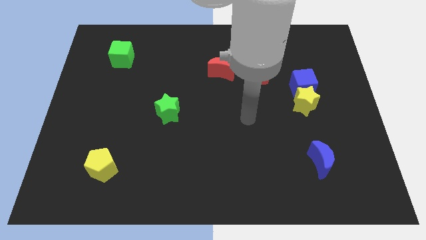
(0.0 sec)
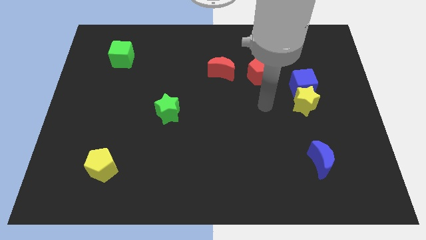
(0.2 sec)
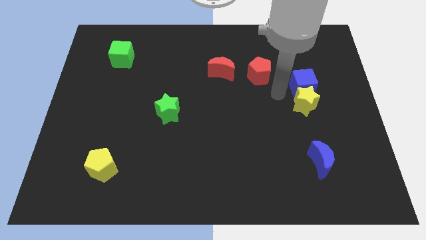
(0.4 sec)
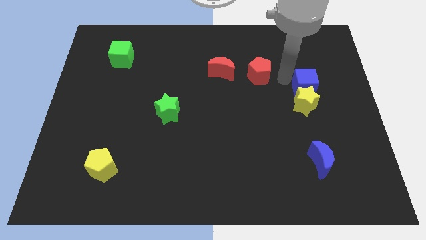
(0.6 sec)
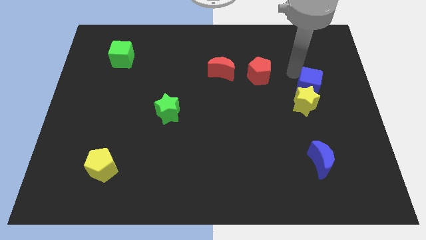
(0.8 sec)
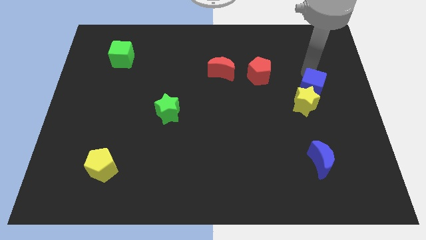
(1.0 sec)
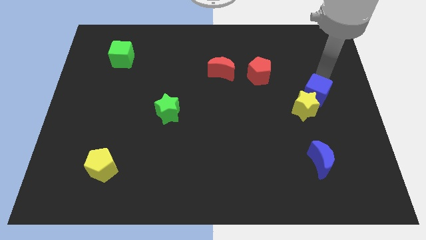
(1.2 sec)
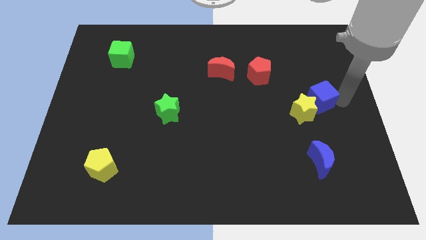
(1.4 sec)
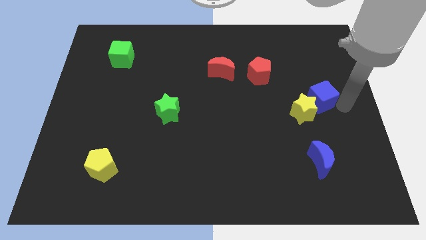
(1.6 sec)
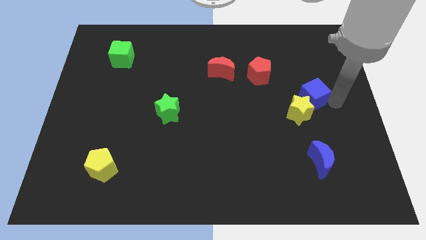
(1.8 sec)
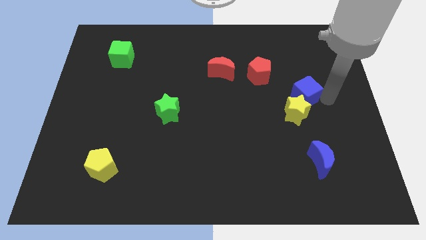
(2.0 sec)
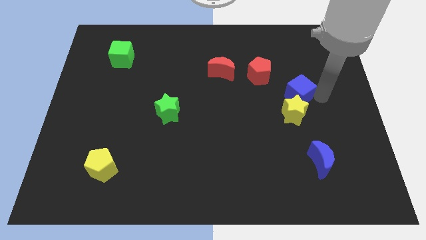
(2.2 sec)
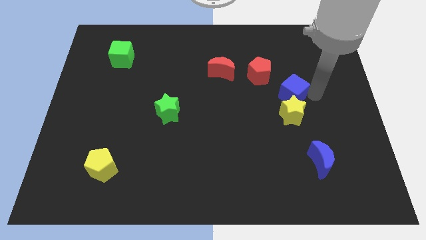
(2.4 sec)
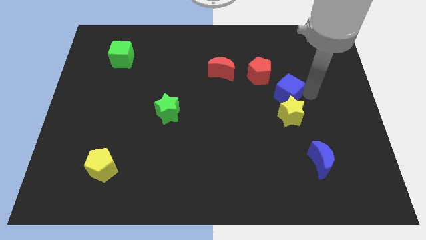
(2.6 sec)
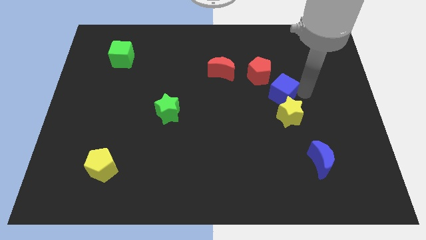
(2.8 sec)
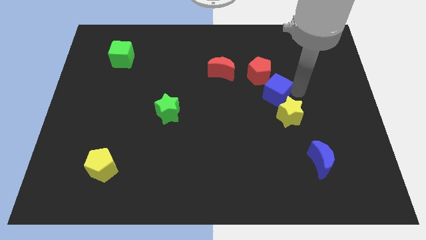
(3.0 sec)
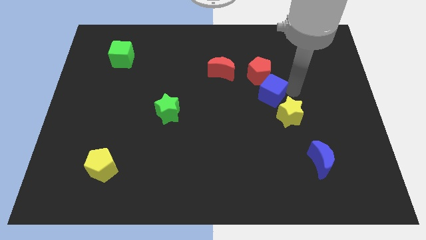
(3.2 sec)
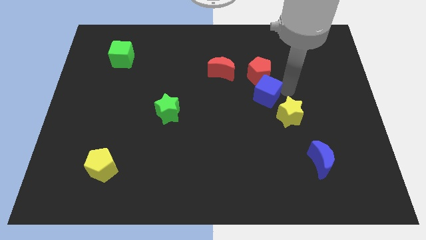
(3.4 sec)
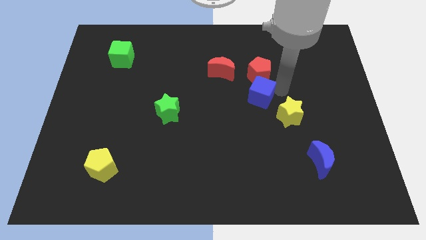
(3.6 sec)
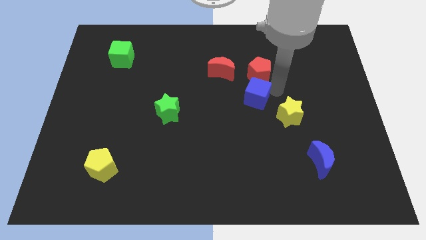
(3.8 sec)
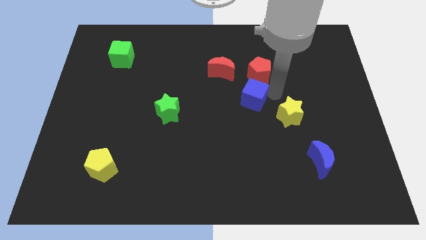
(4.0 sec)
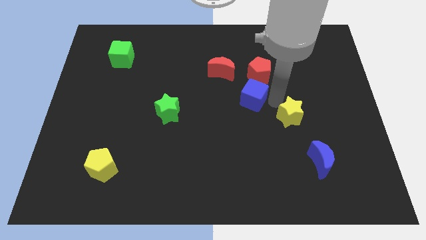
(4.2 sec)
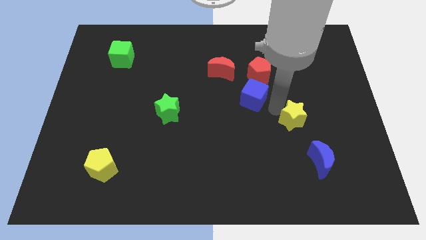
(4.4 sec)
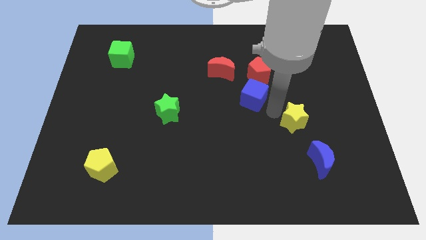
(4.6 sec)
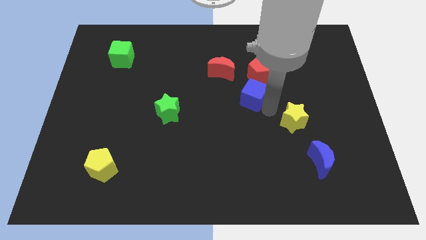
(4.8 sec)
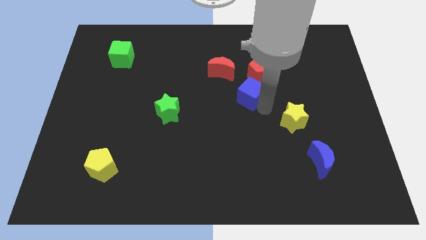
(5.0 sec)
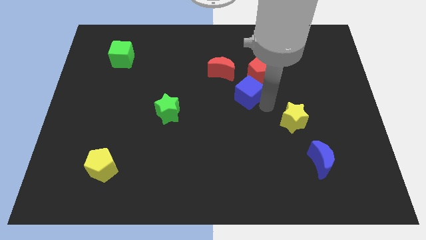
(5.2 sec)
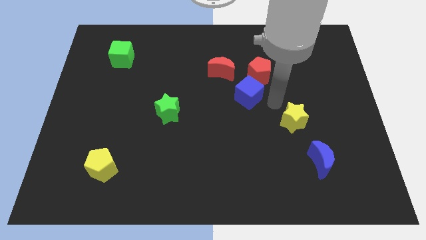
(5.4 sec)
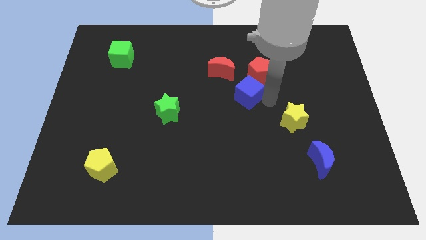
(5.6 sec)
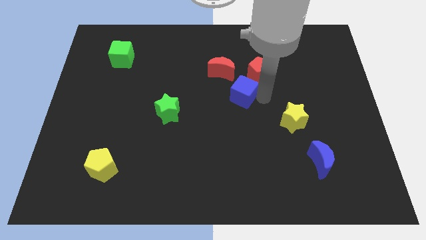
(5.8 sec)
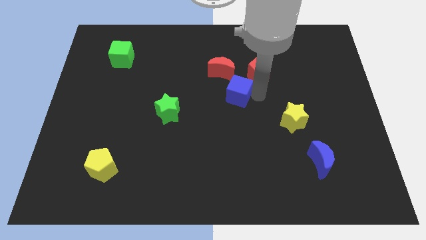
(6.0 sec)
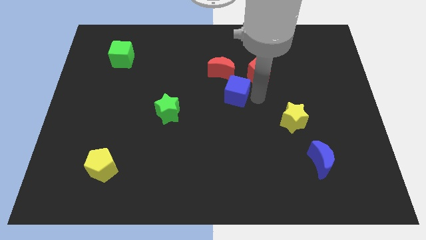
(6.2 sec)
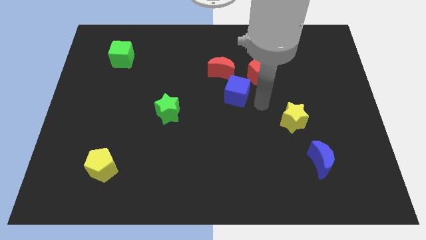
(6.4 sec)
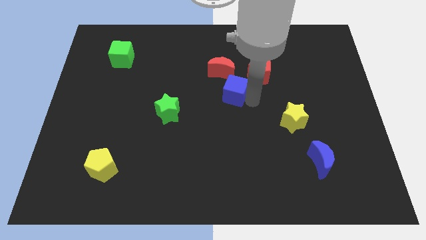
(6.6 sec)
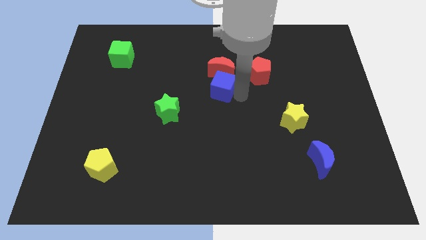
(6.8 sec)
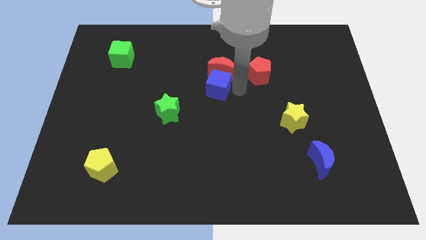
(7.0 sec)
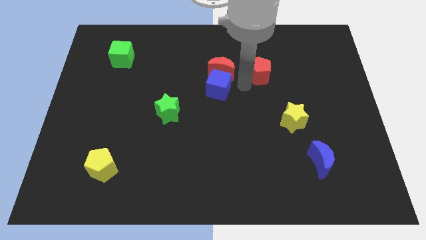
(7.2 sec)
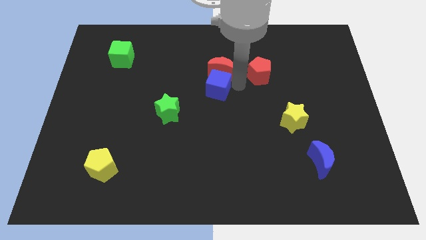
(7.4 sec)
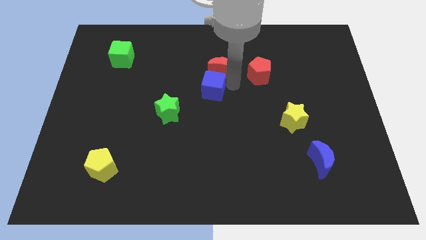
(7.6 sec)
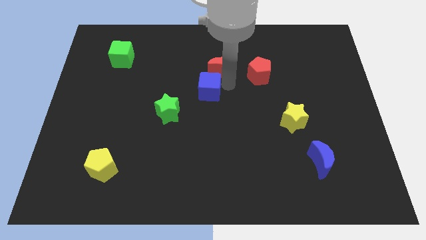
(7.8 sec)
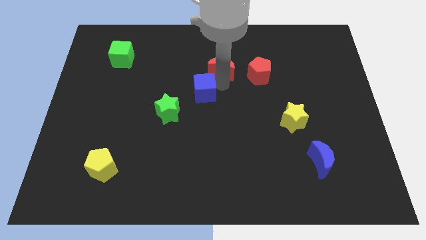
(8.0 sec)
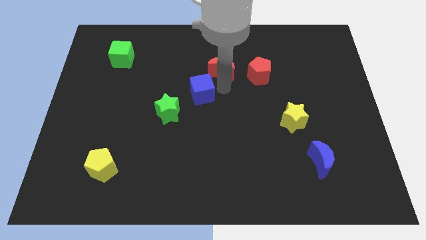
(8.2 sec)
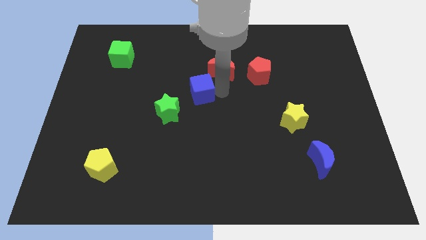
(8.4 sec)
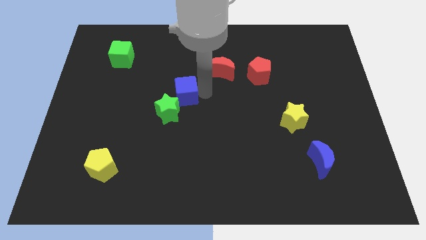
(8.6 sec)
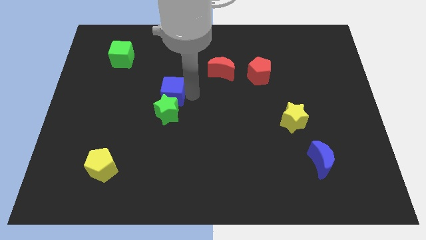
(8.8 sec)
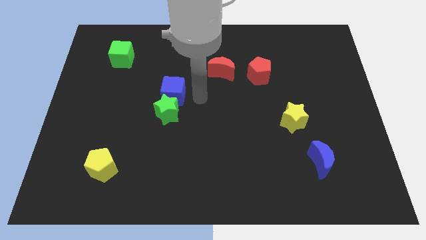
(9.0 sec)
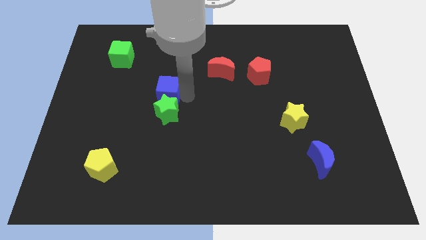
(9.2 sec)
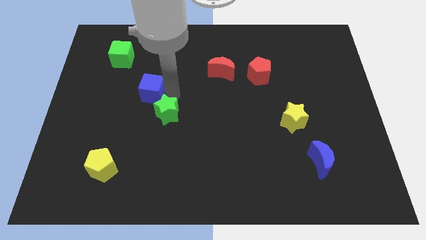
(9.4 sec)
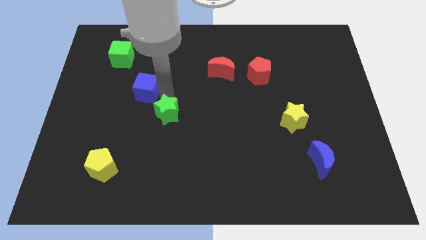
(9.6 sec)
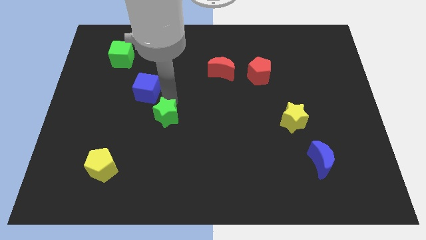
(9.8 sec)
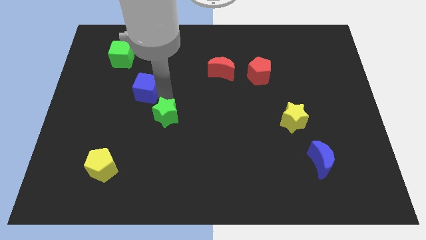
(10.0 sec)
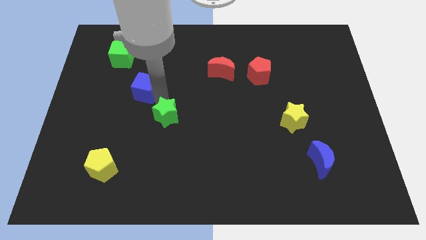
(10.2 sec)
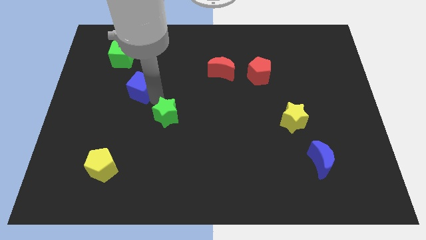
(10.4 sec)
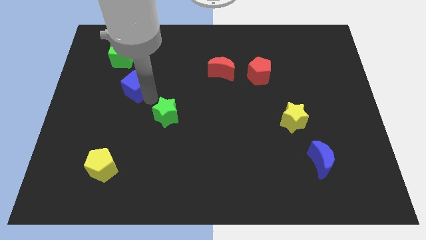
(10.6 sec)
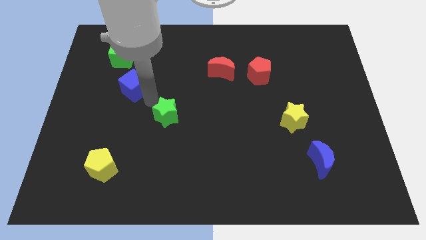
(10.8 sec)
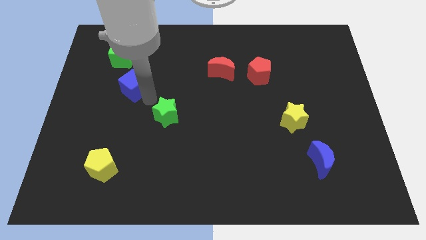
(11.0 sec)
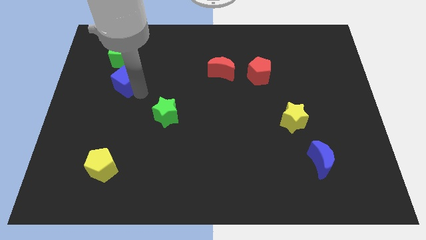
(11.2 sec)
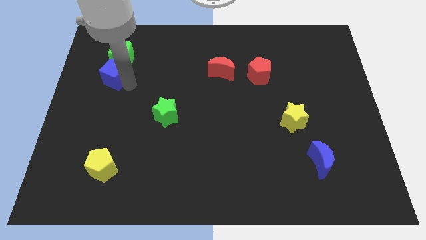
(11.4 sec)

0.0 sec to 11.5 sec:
slide the blue cube to the bottom left side of the green cube

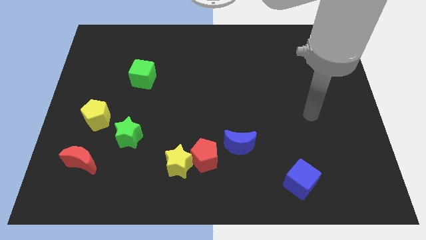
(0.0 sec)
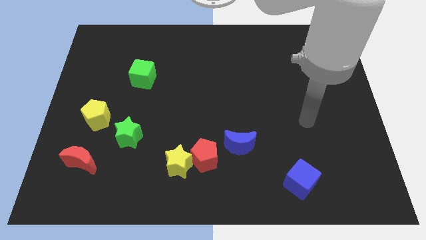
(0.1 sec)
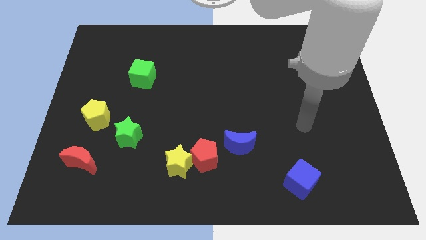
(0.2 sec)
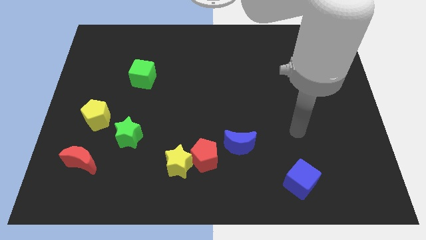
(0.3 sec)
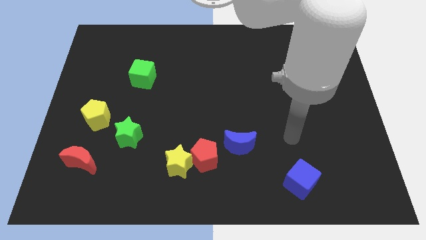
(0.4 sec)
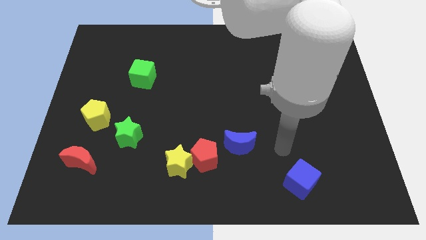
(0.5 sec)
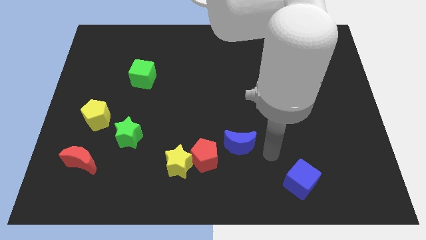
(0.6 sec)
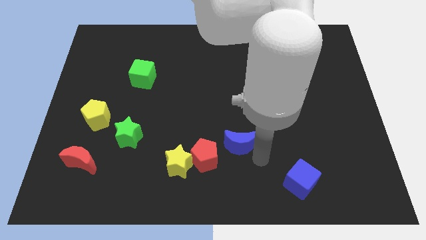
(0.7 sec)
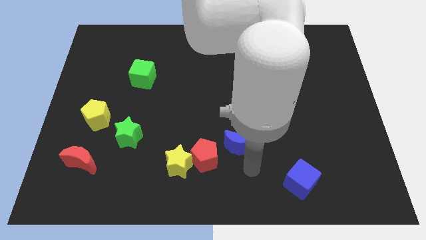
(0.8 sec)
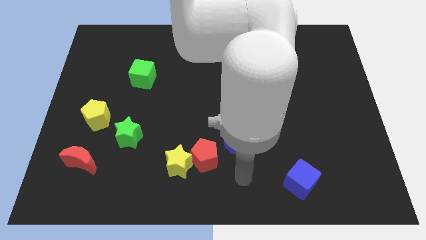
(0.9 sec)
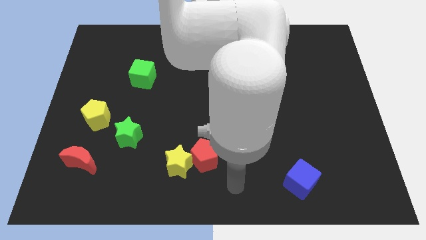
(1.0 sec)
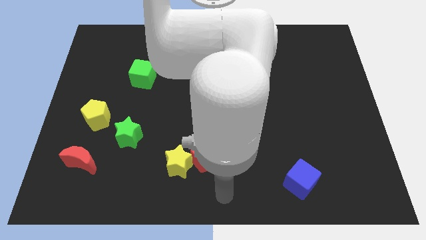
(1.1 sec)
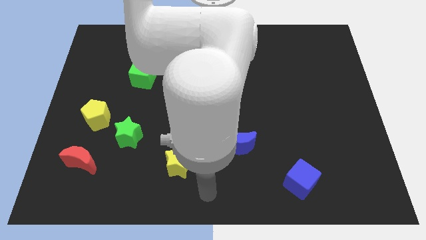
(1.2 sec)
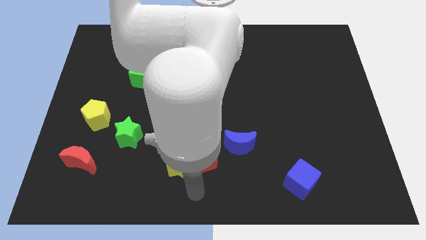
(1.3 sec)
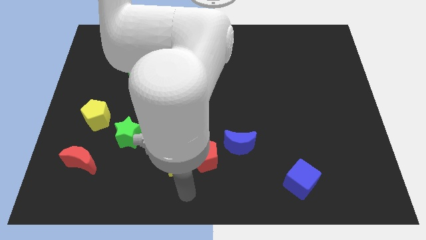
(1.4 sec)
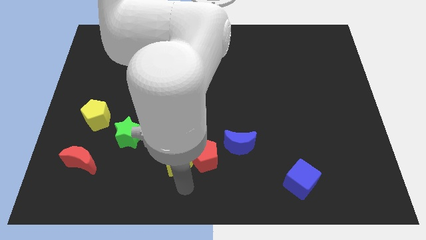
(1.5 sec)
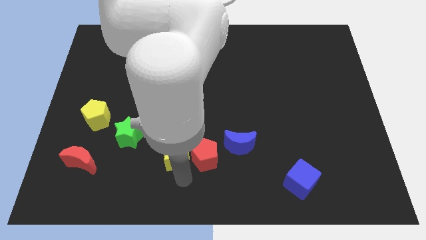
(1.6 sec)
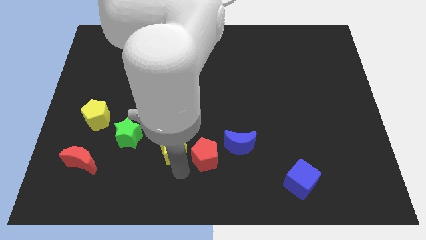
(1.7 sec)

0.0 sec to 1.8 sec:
push the yellow star to the right of the green star
